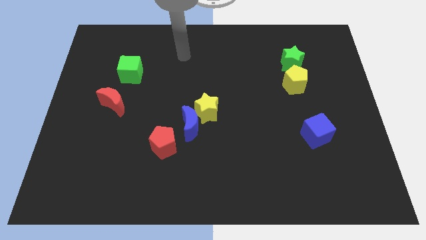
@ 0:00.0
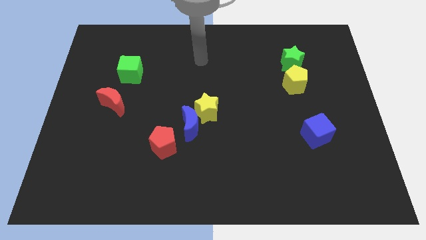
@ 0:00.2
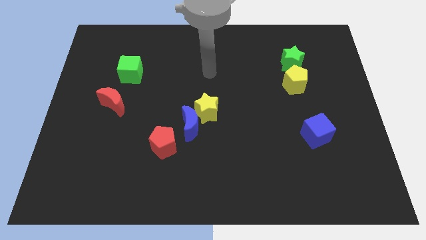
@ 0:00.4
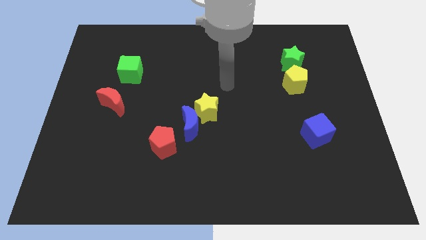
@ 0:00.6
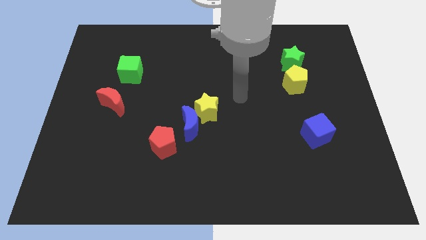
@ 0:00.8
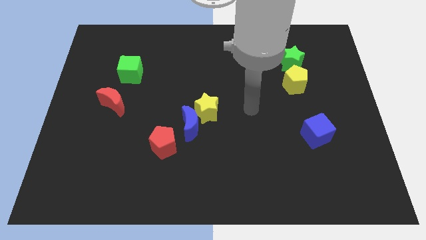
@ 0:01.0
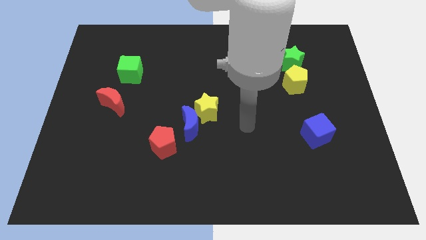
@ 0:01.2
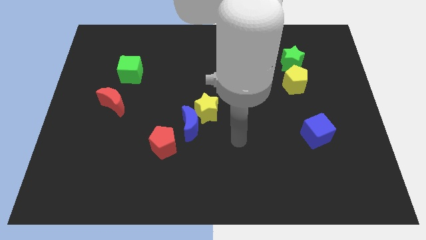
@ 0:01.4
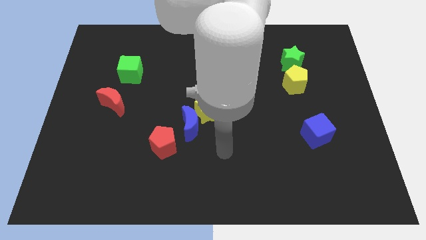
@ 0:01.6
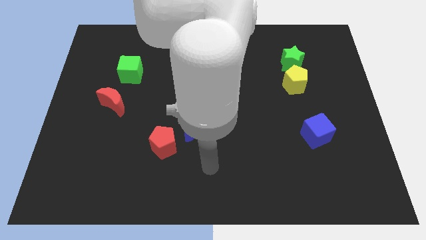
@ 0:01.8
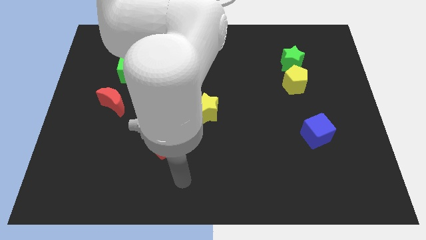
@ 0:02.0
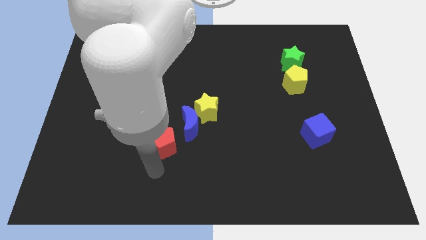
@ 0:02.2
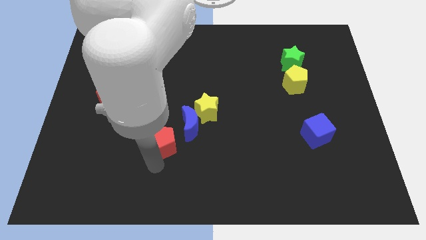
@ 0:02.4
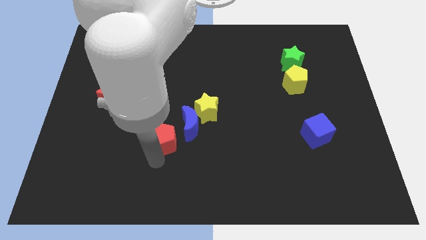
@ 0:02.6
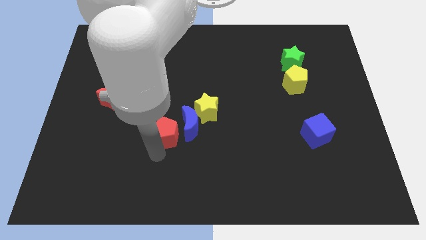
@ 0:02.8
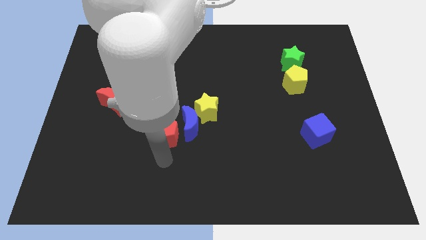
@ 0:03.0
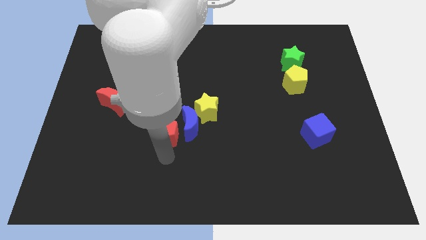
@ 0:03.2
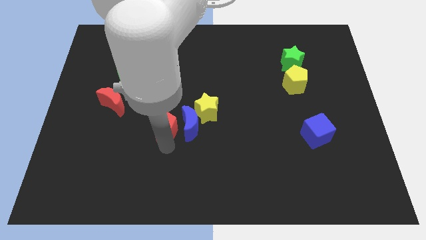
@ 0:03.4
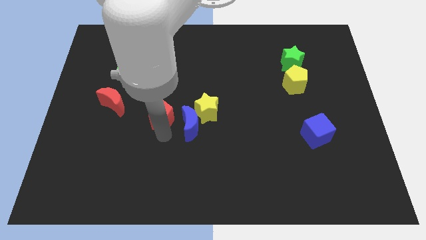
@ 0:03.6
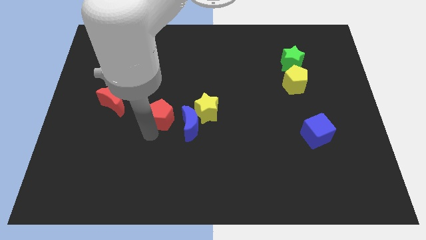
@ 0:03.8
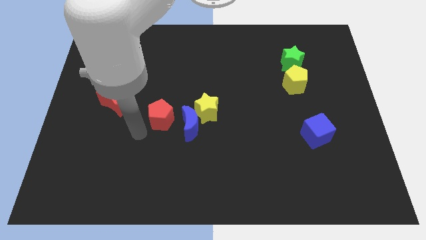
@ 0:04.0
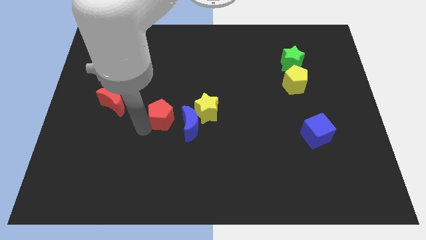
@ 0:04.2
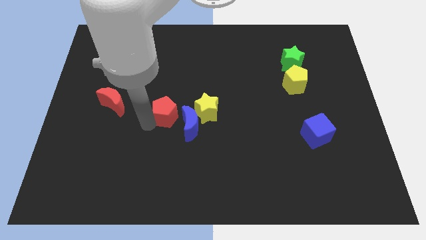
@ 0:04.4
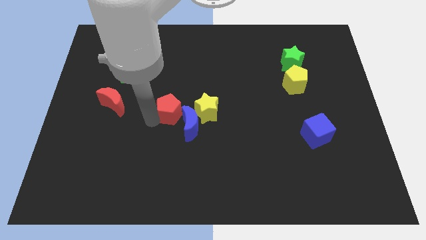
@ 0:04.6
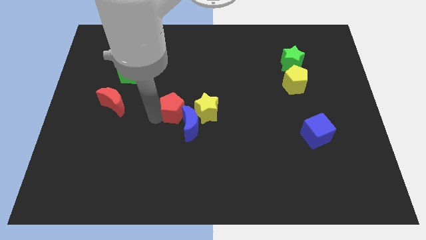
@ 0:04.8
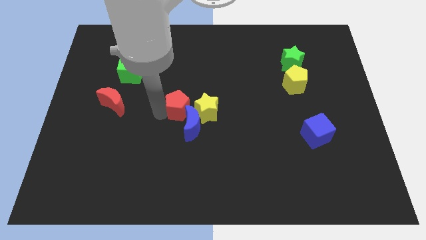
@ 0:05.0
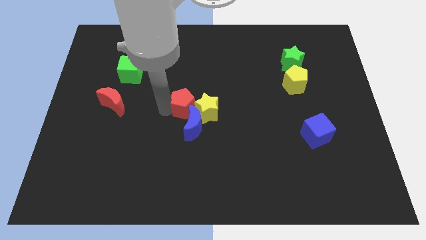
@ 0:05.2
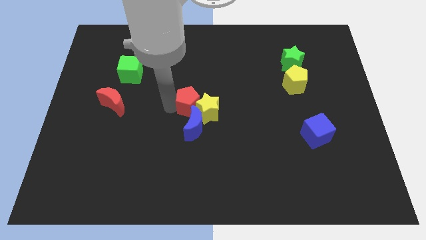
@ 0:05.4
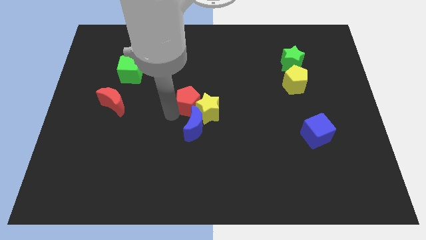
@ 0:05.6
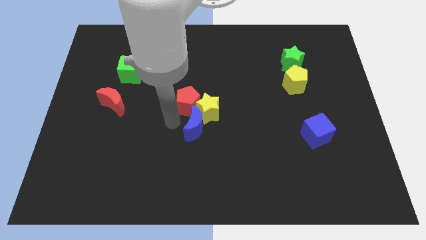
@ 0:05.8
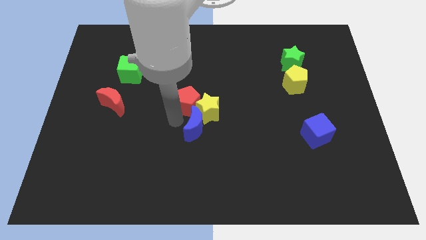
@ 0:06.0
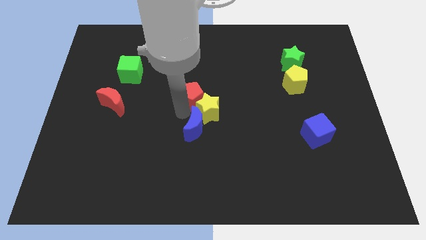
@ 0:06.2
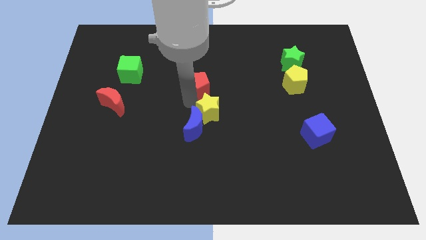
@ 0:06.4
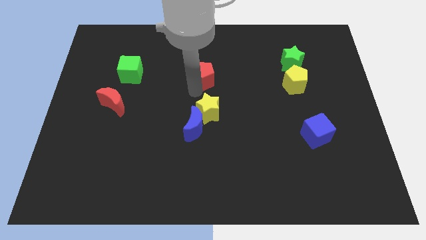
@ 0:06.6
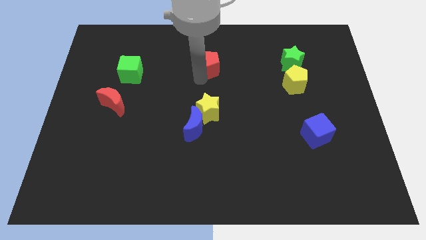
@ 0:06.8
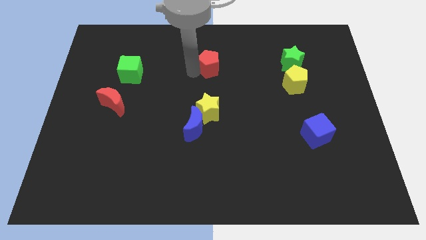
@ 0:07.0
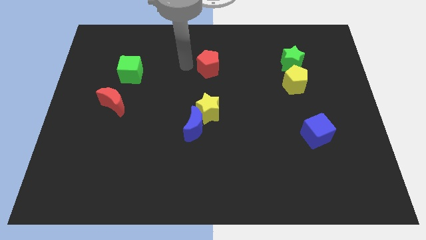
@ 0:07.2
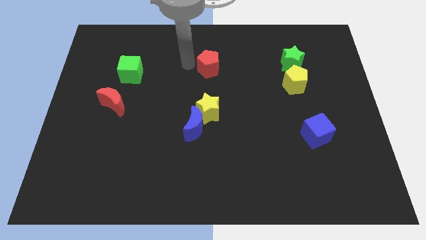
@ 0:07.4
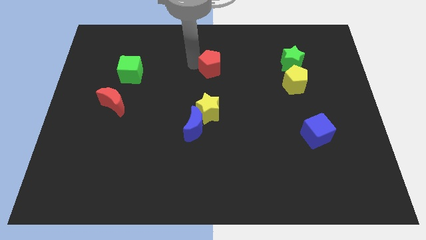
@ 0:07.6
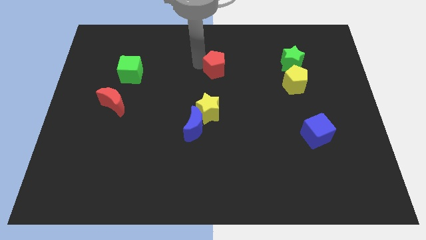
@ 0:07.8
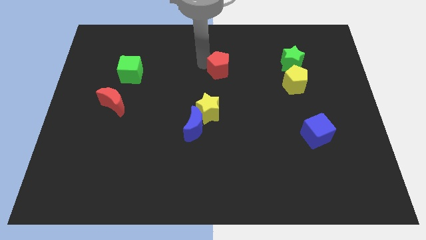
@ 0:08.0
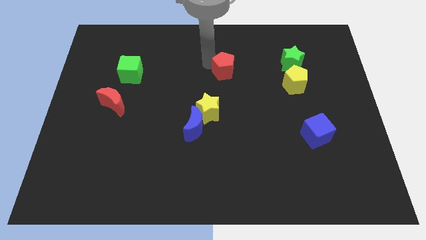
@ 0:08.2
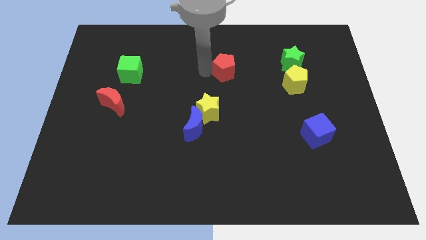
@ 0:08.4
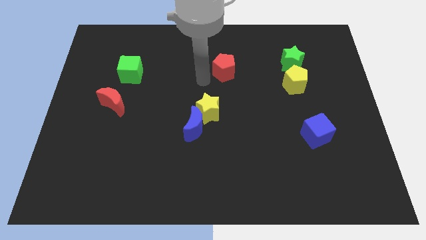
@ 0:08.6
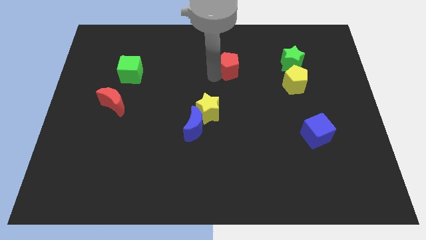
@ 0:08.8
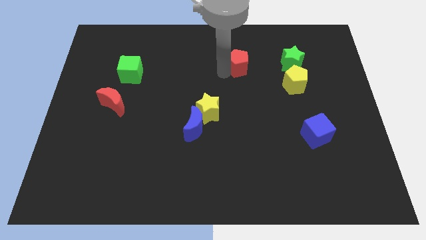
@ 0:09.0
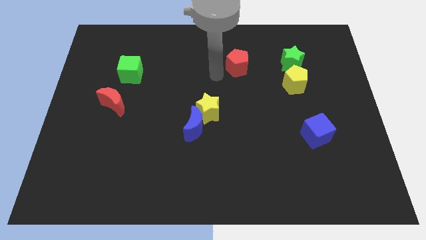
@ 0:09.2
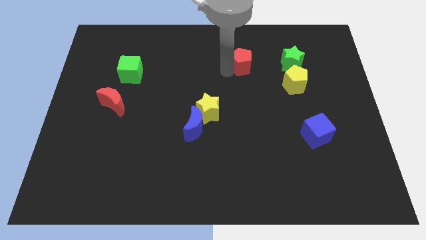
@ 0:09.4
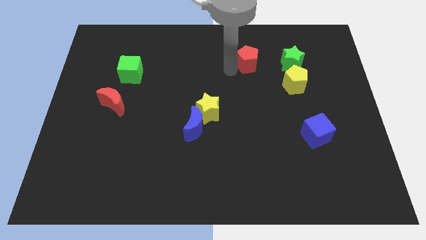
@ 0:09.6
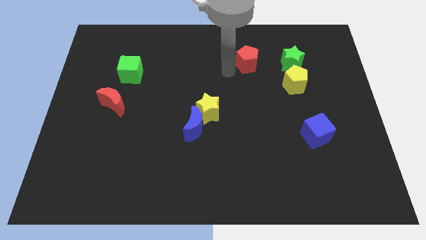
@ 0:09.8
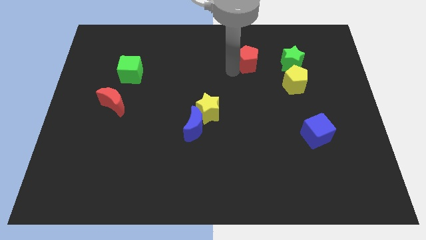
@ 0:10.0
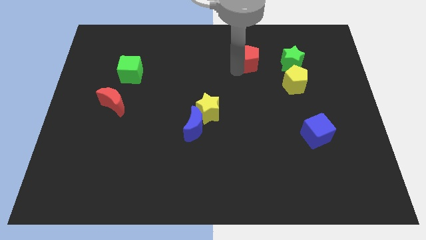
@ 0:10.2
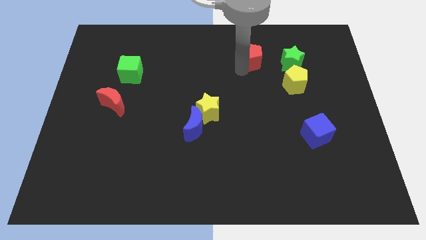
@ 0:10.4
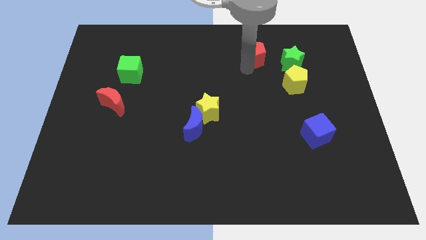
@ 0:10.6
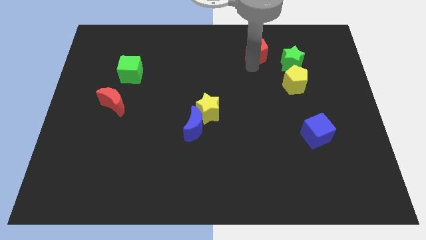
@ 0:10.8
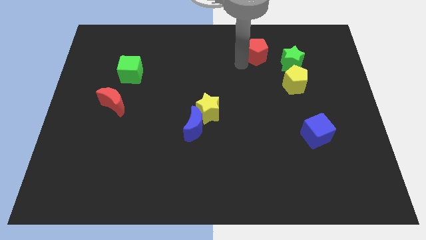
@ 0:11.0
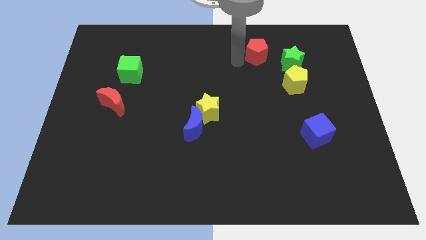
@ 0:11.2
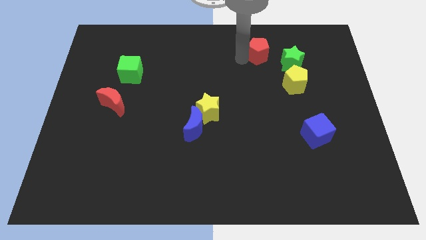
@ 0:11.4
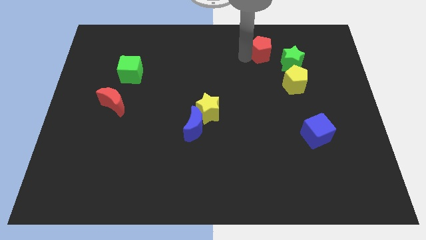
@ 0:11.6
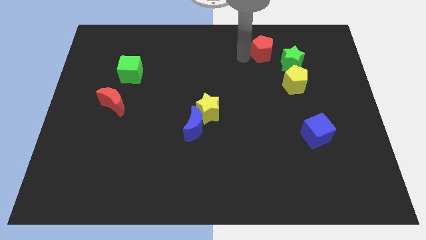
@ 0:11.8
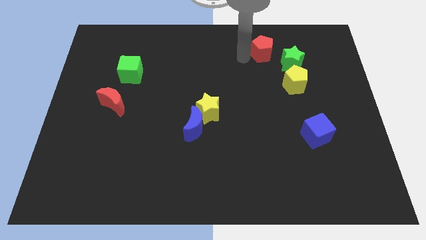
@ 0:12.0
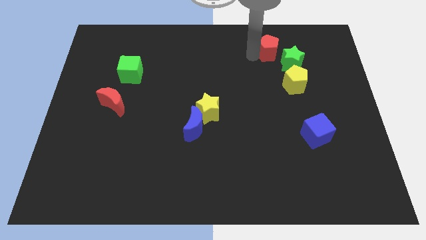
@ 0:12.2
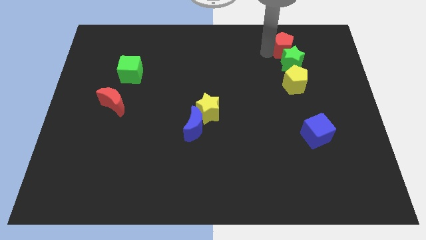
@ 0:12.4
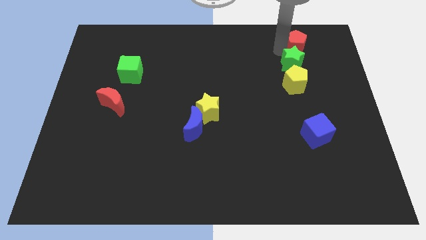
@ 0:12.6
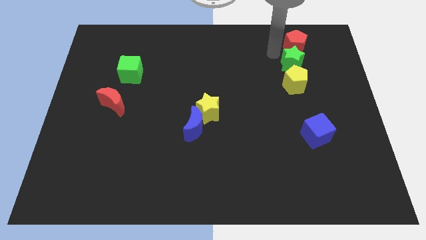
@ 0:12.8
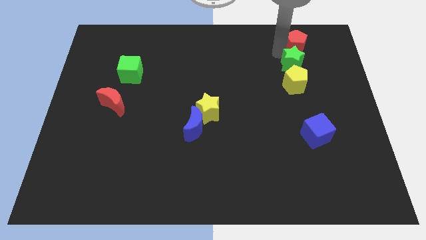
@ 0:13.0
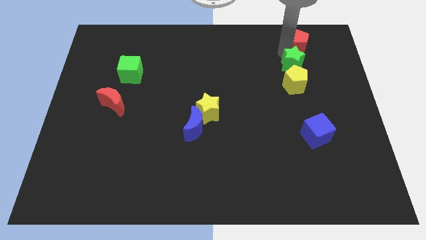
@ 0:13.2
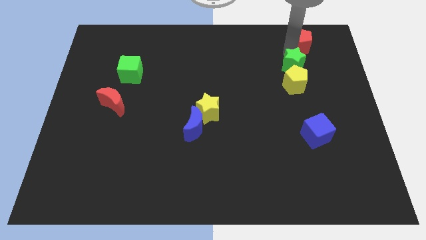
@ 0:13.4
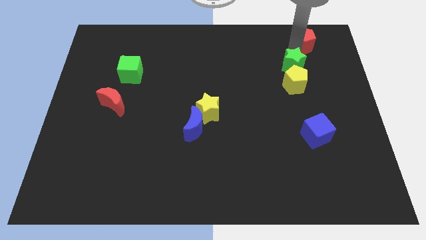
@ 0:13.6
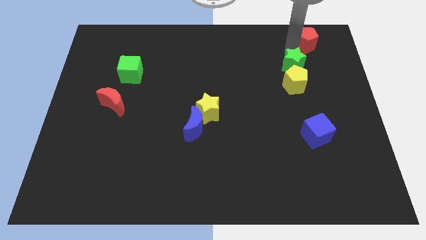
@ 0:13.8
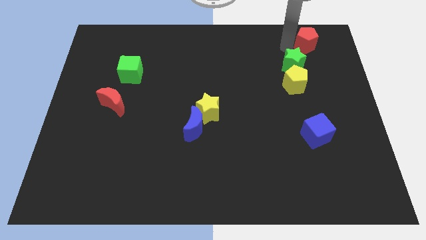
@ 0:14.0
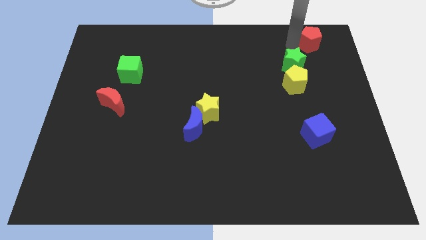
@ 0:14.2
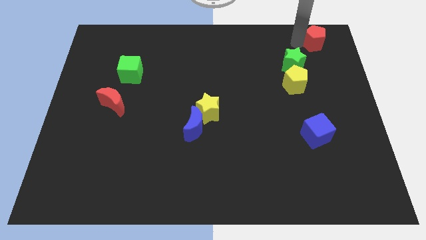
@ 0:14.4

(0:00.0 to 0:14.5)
slide the red pentagon to the top right of the board
